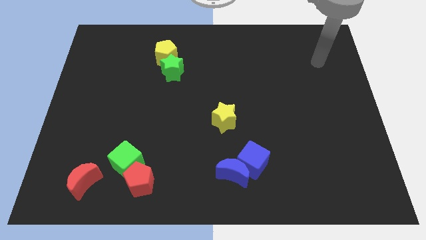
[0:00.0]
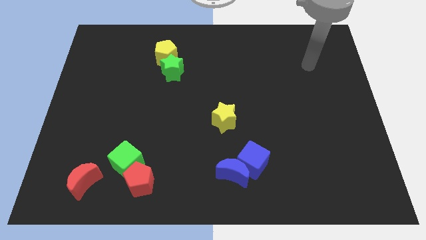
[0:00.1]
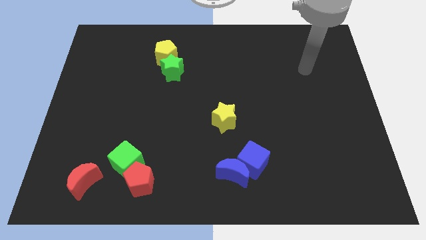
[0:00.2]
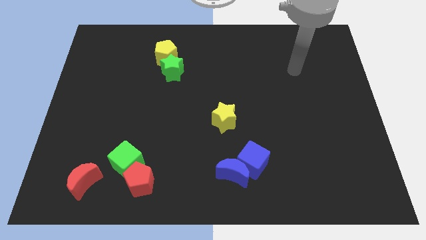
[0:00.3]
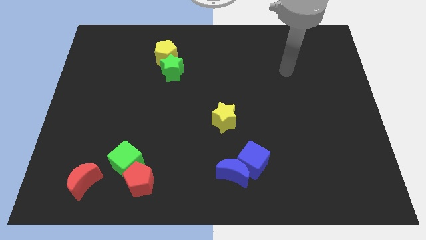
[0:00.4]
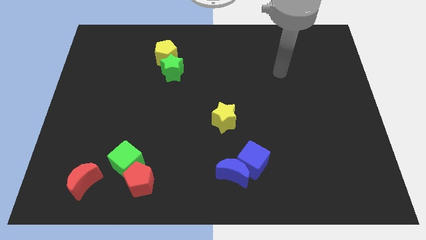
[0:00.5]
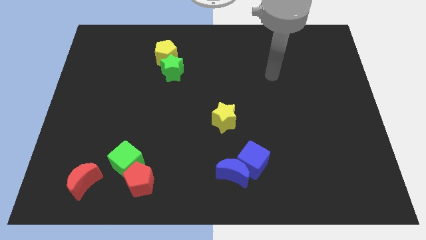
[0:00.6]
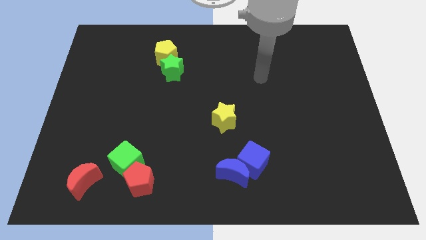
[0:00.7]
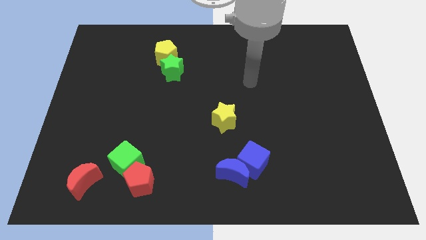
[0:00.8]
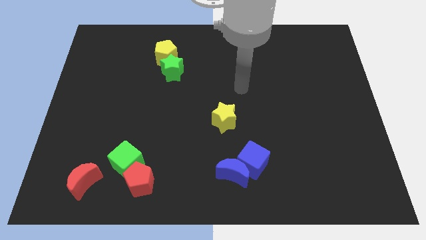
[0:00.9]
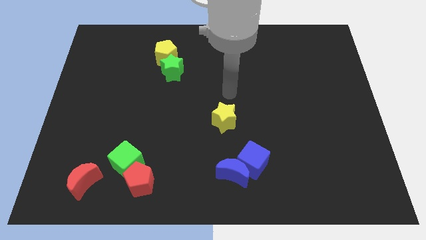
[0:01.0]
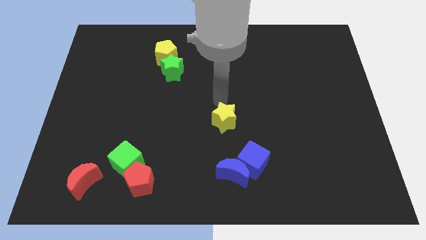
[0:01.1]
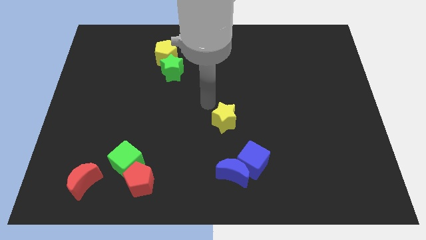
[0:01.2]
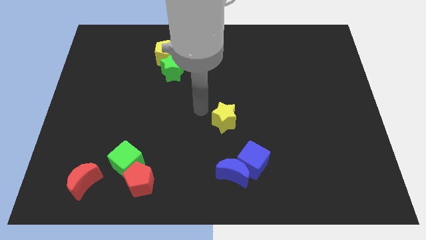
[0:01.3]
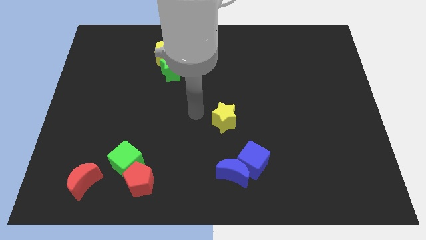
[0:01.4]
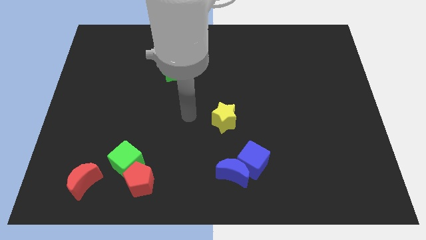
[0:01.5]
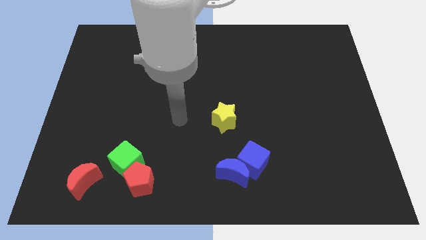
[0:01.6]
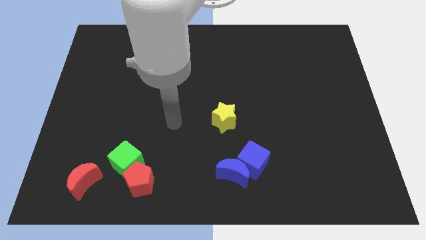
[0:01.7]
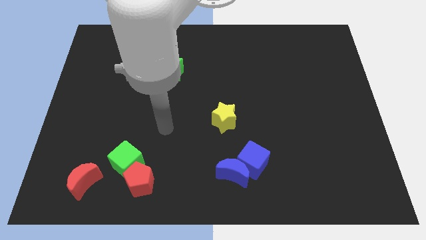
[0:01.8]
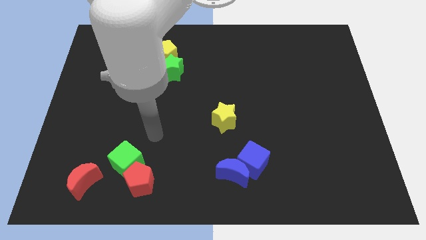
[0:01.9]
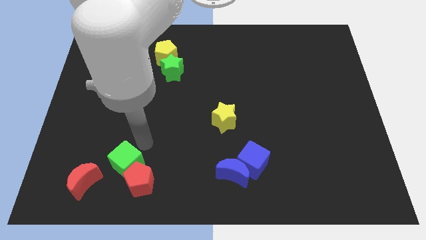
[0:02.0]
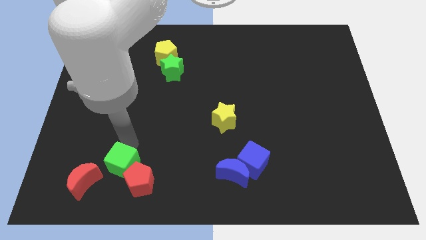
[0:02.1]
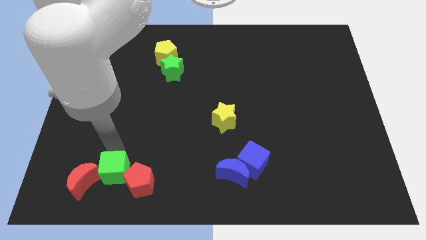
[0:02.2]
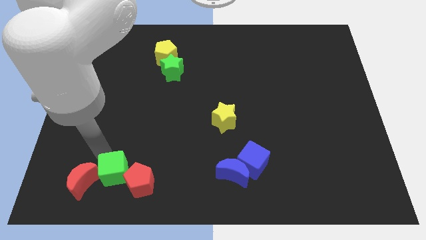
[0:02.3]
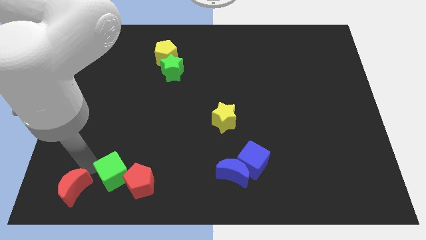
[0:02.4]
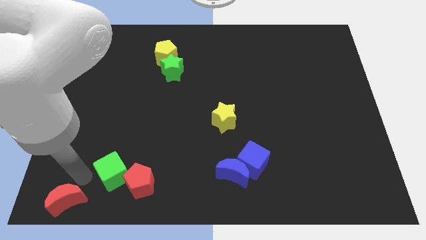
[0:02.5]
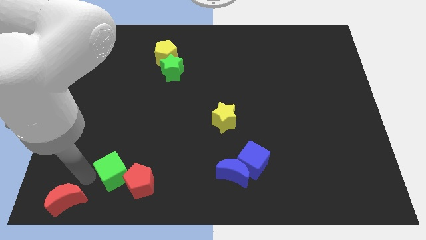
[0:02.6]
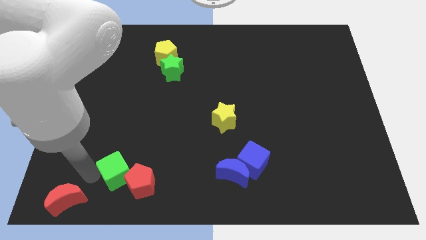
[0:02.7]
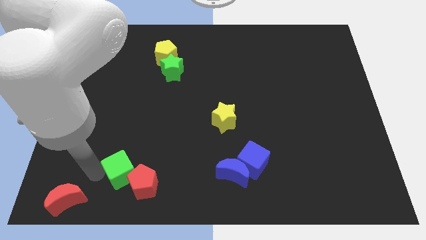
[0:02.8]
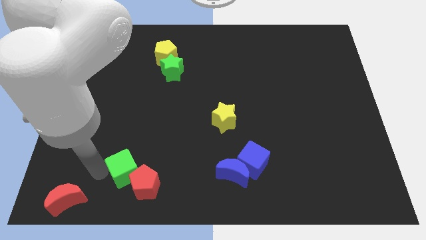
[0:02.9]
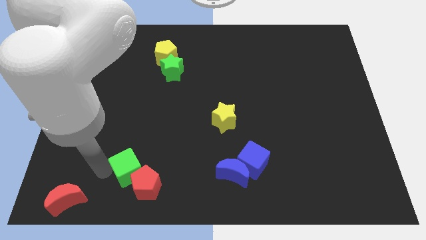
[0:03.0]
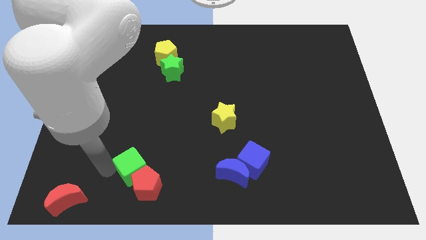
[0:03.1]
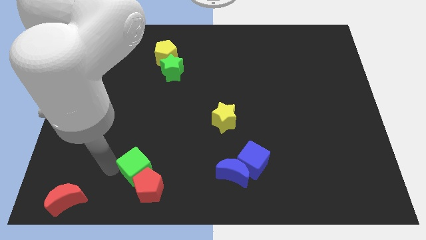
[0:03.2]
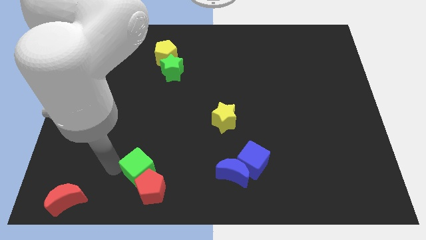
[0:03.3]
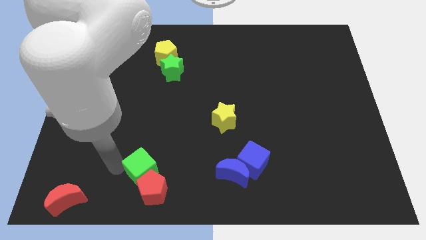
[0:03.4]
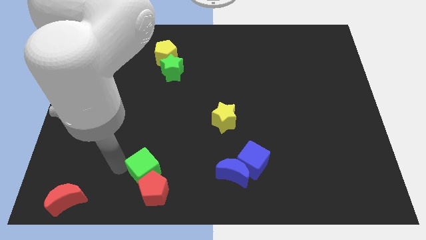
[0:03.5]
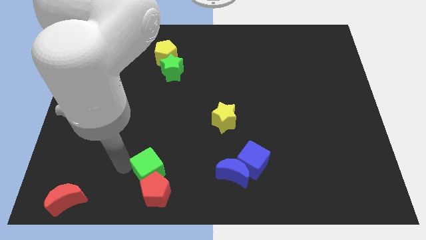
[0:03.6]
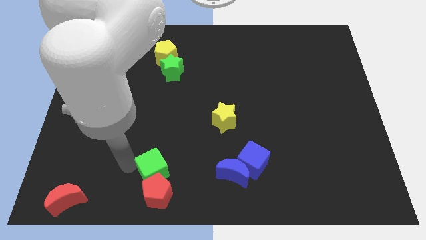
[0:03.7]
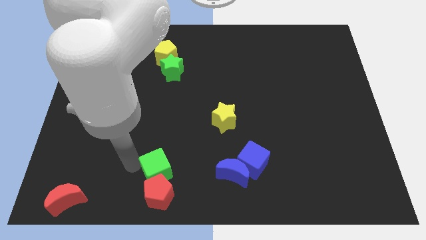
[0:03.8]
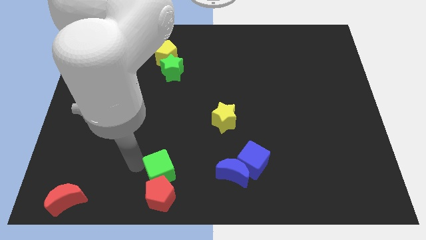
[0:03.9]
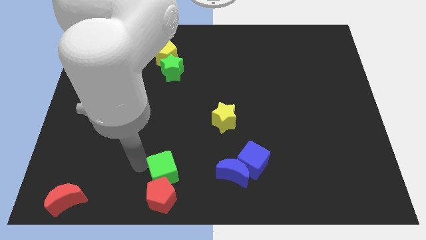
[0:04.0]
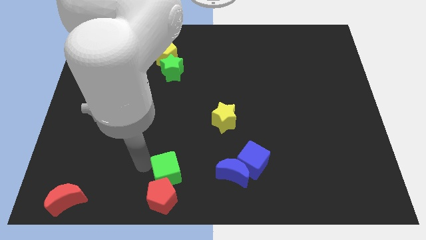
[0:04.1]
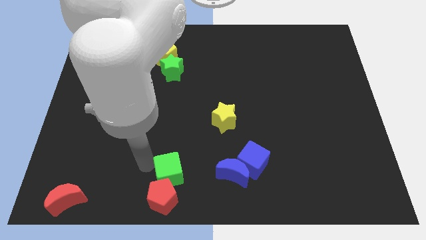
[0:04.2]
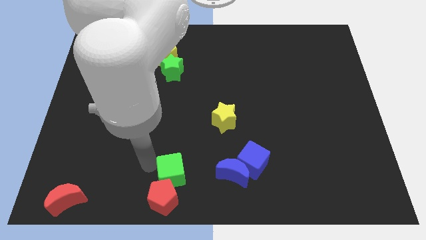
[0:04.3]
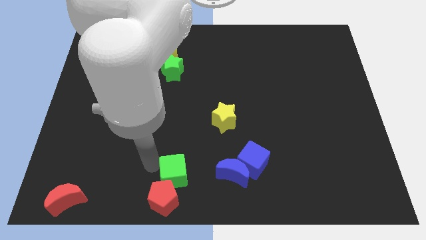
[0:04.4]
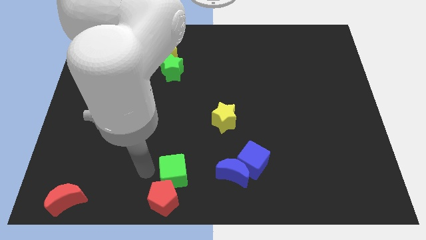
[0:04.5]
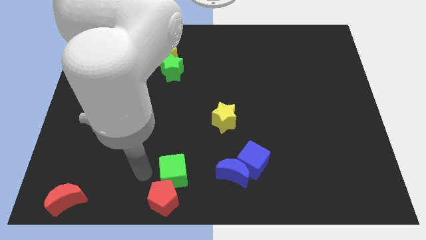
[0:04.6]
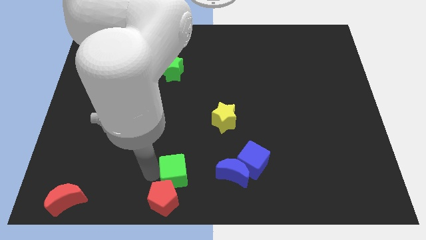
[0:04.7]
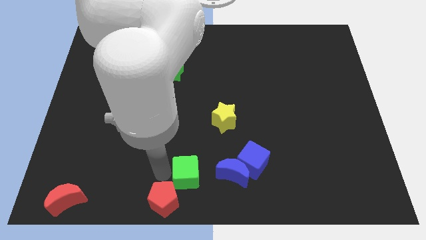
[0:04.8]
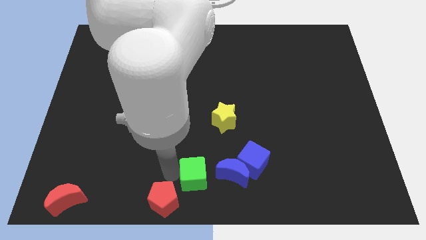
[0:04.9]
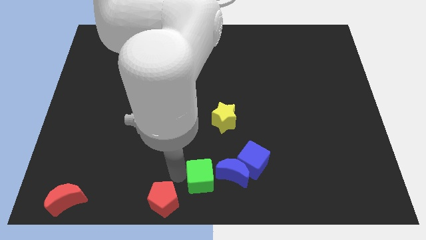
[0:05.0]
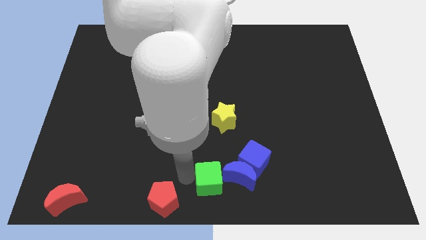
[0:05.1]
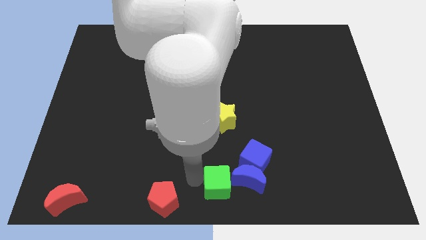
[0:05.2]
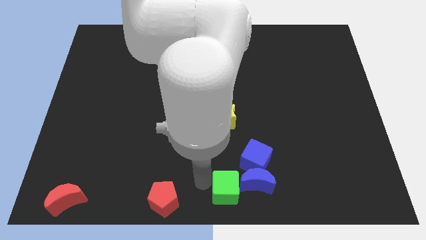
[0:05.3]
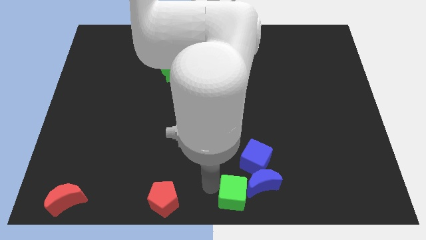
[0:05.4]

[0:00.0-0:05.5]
put the green cube towards the blue moon

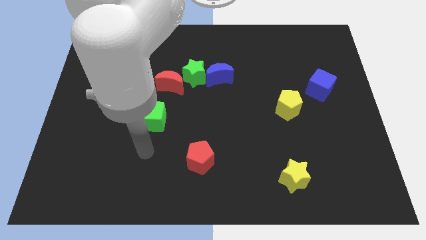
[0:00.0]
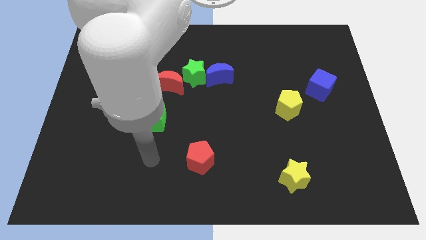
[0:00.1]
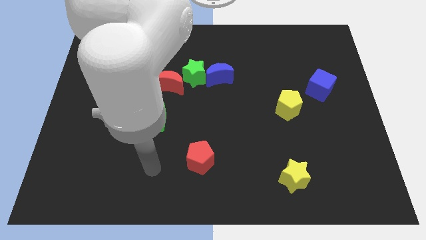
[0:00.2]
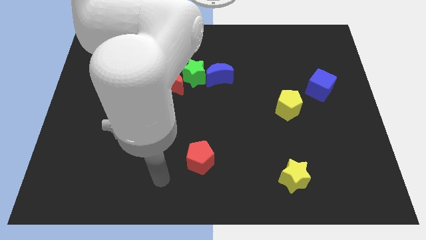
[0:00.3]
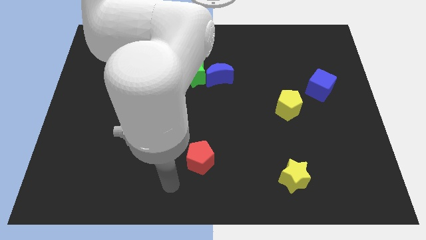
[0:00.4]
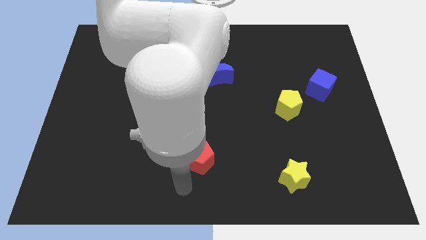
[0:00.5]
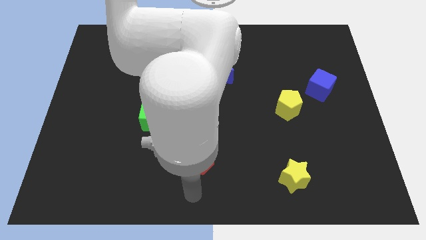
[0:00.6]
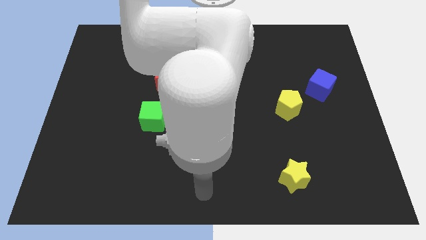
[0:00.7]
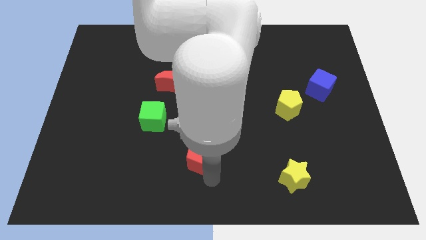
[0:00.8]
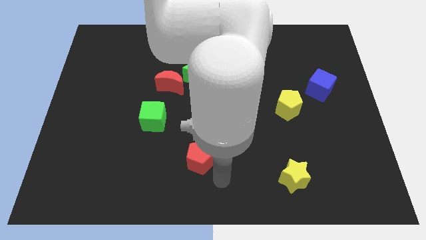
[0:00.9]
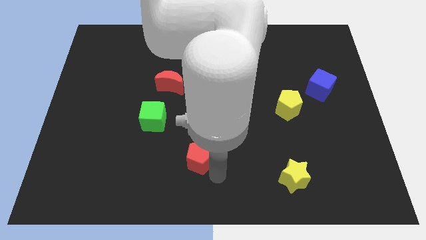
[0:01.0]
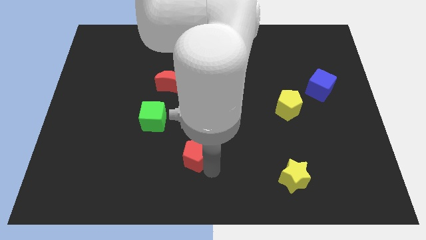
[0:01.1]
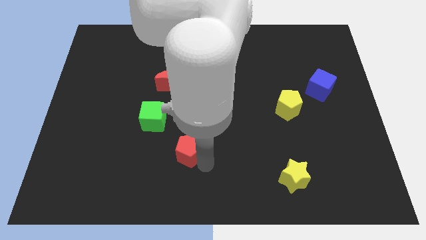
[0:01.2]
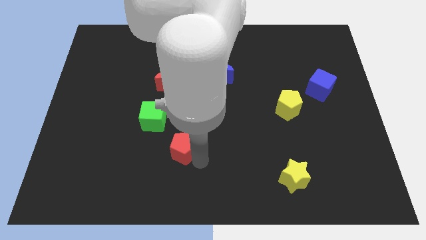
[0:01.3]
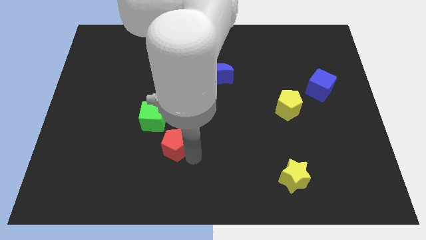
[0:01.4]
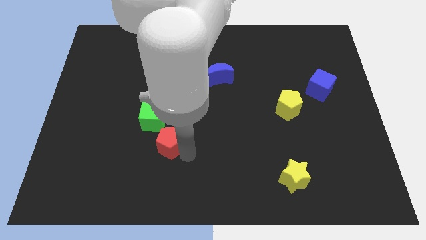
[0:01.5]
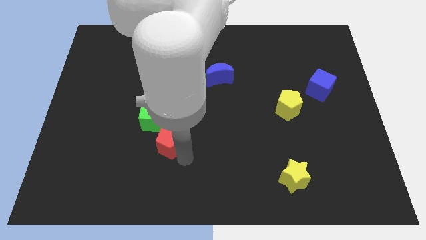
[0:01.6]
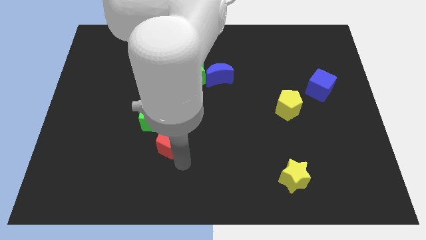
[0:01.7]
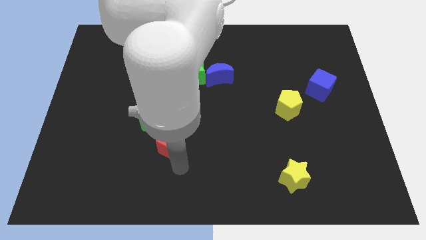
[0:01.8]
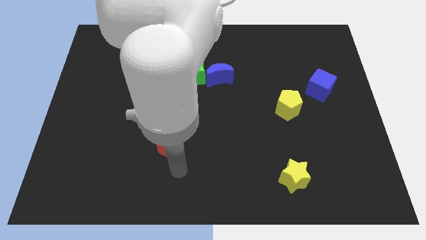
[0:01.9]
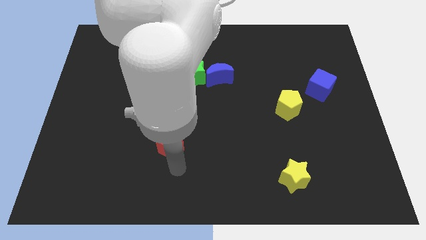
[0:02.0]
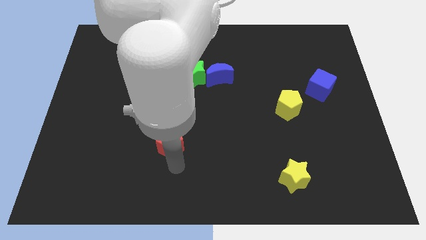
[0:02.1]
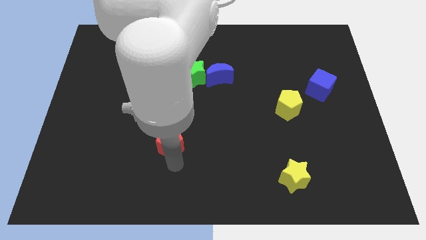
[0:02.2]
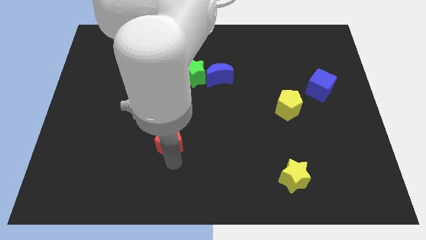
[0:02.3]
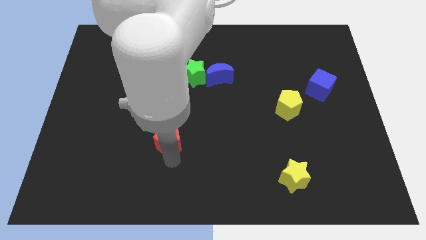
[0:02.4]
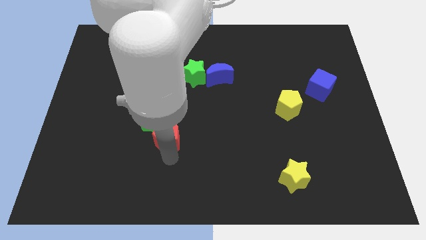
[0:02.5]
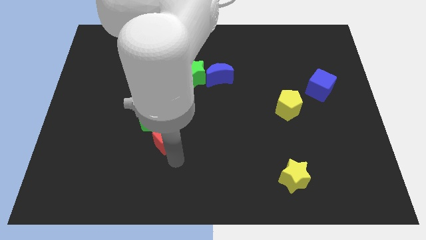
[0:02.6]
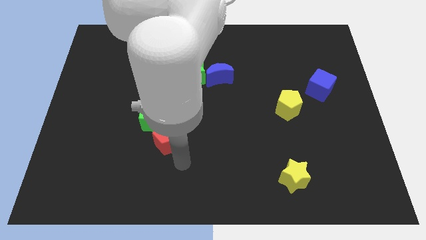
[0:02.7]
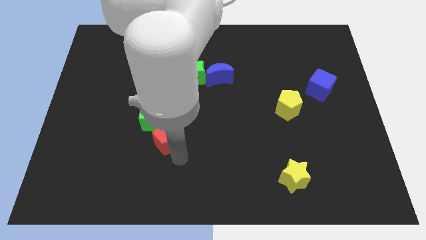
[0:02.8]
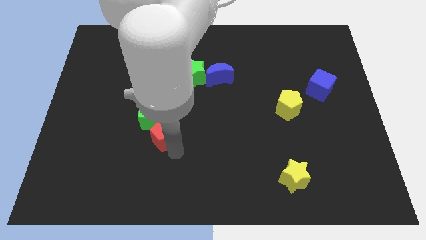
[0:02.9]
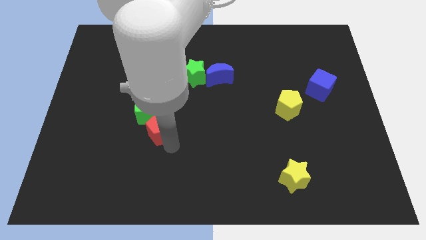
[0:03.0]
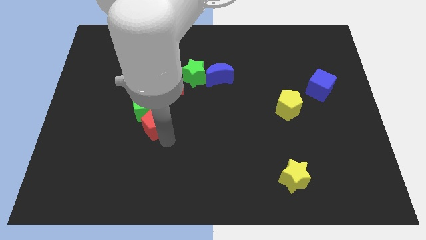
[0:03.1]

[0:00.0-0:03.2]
move the red pentagon close to the green cube
